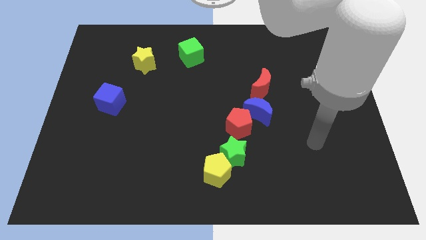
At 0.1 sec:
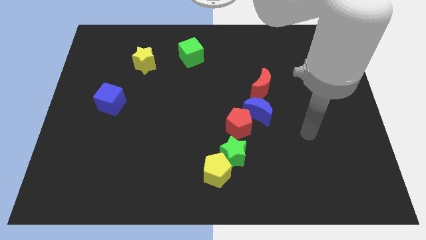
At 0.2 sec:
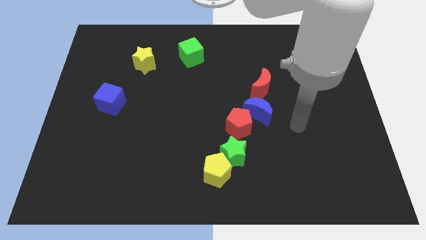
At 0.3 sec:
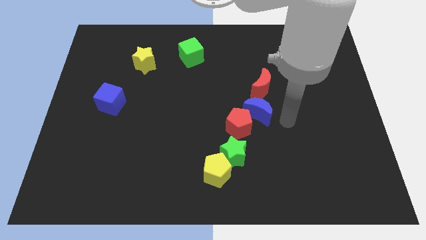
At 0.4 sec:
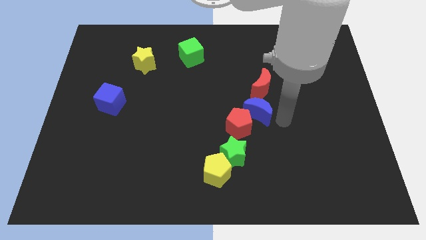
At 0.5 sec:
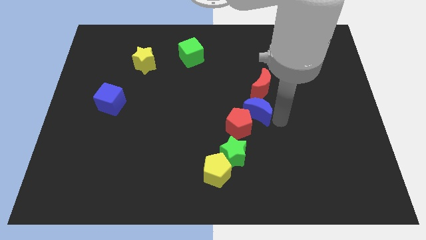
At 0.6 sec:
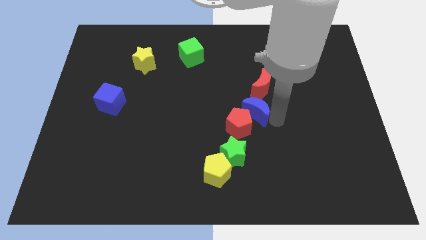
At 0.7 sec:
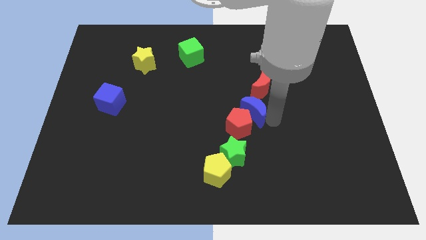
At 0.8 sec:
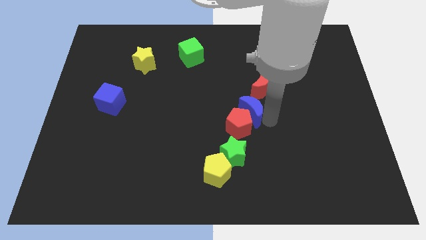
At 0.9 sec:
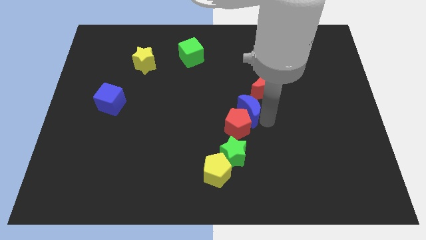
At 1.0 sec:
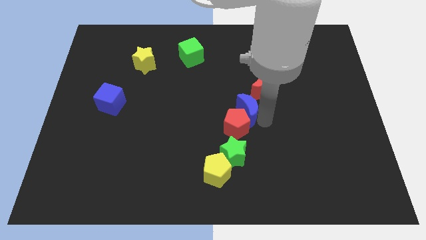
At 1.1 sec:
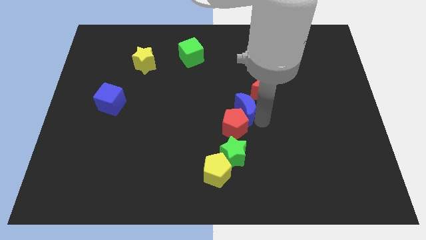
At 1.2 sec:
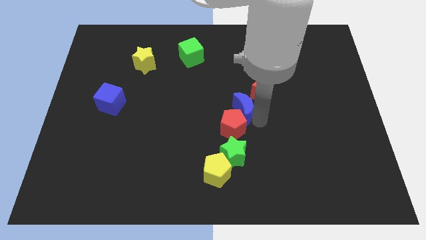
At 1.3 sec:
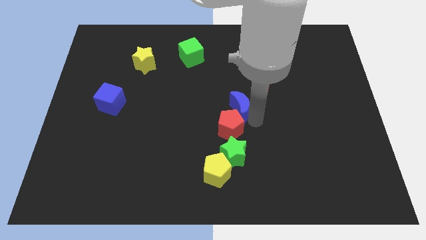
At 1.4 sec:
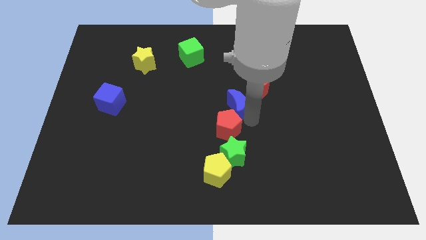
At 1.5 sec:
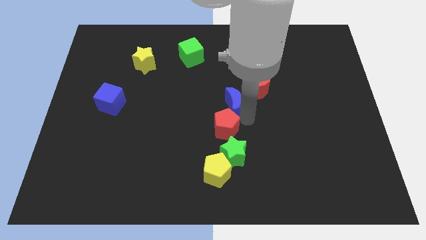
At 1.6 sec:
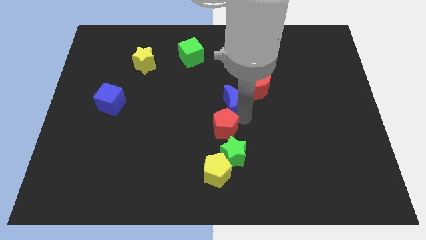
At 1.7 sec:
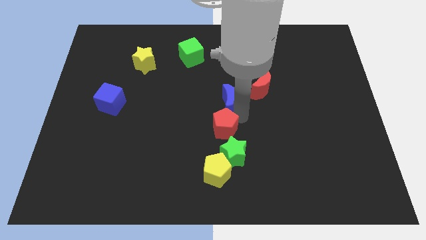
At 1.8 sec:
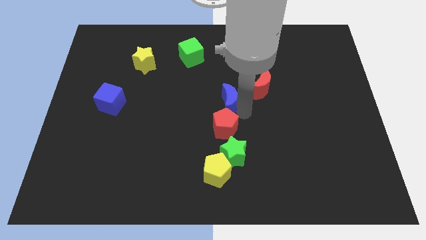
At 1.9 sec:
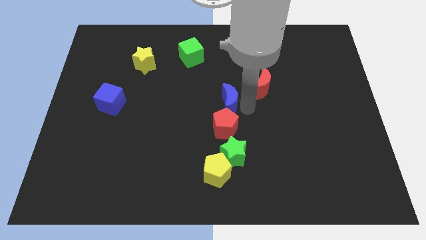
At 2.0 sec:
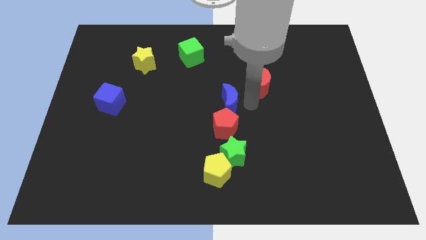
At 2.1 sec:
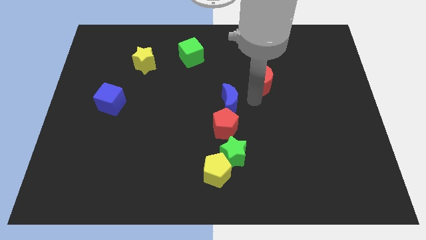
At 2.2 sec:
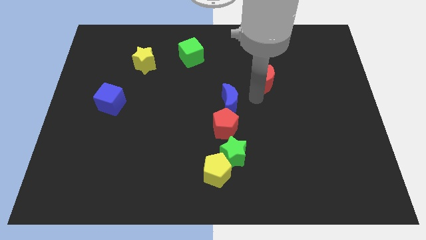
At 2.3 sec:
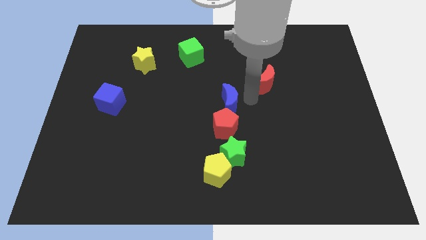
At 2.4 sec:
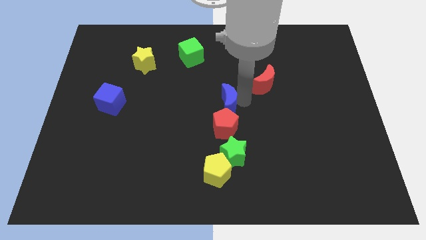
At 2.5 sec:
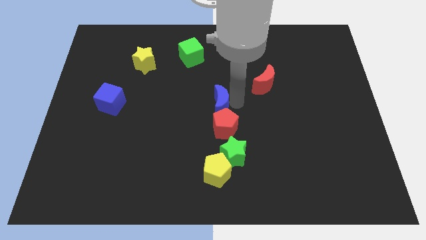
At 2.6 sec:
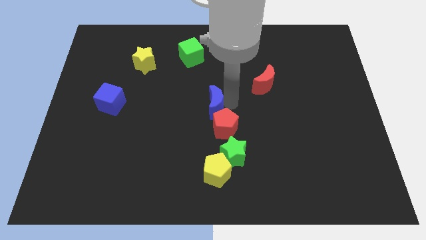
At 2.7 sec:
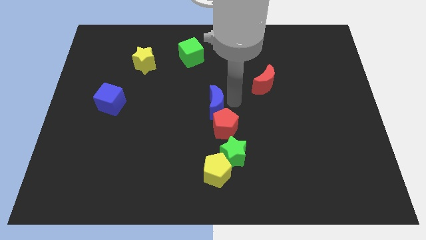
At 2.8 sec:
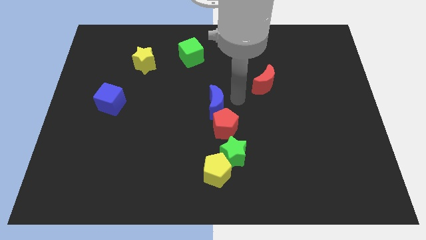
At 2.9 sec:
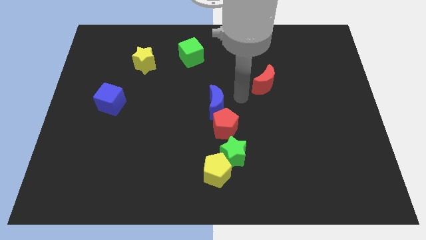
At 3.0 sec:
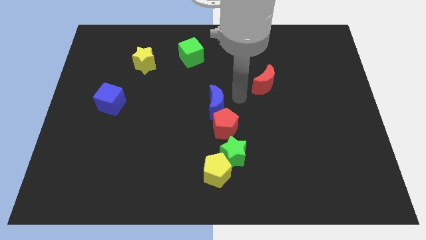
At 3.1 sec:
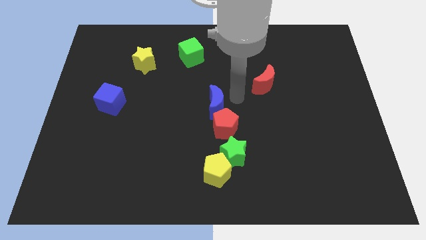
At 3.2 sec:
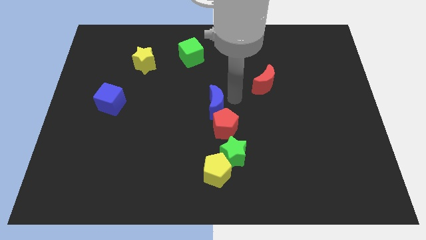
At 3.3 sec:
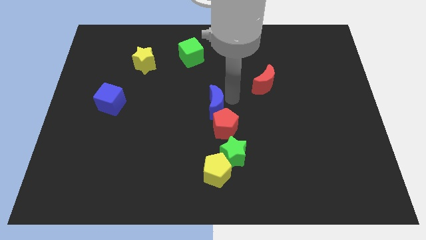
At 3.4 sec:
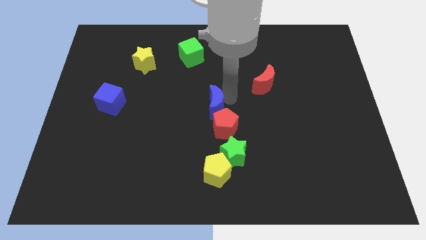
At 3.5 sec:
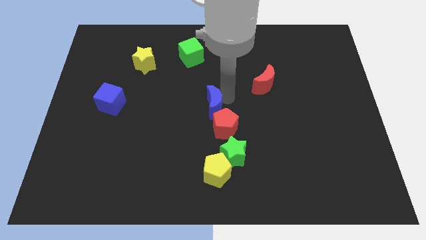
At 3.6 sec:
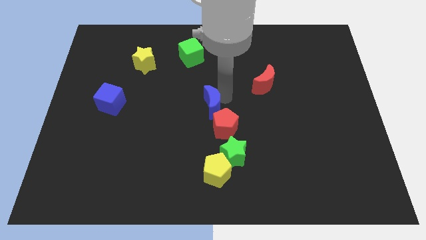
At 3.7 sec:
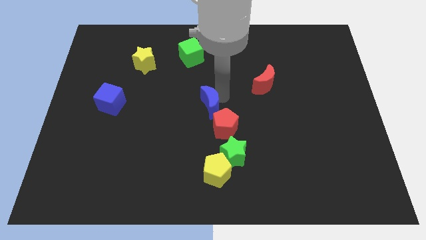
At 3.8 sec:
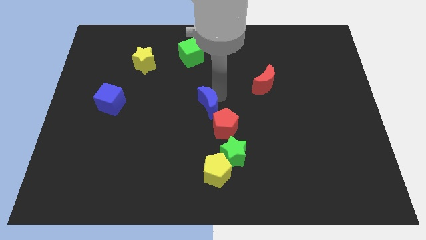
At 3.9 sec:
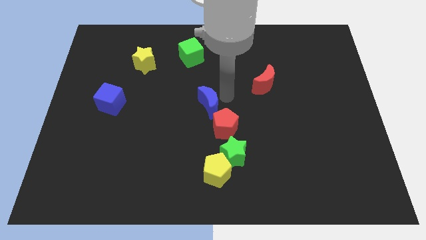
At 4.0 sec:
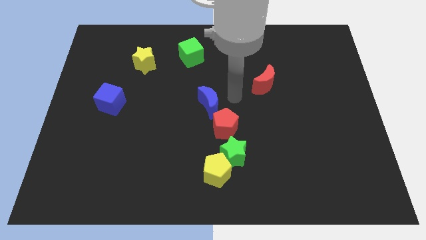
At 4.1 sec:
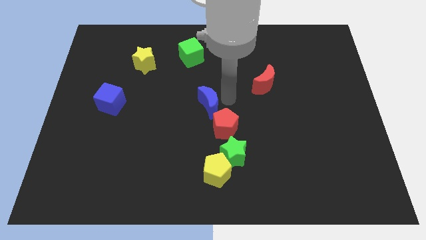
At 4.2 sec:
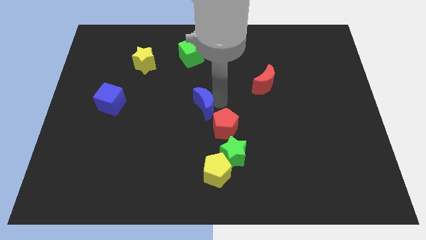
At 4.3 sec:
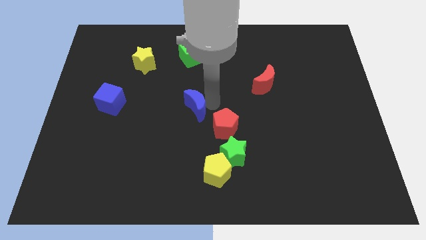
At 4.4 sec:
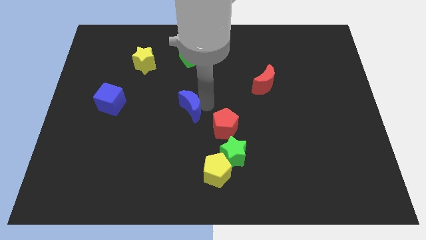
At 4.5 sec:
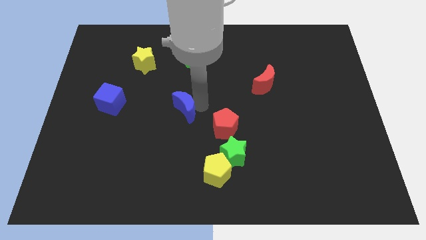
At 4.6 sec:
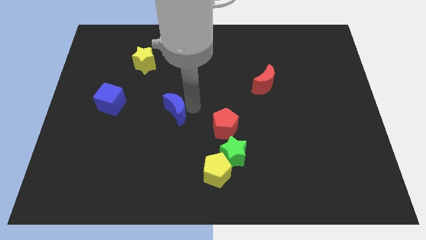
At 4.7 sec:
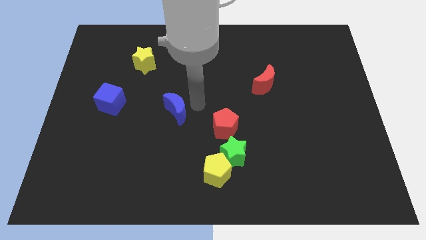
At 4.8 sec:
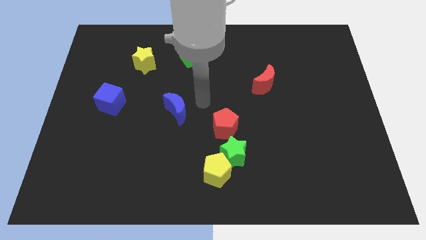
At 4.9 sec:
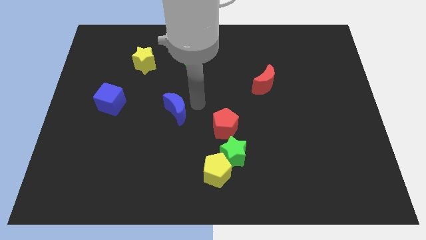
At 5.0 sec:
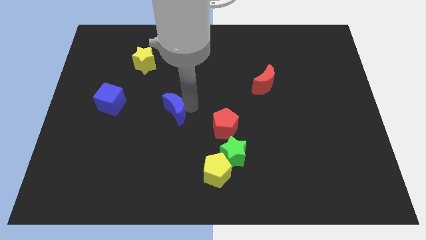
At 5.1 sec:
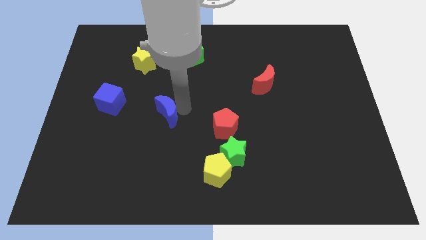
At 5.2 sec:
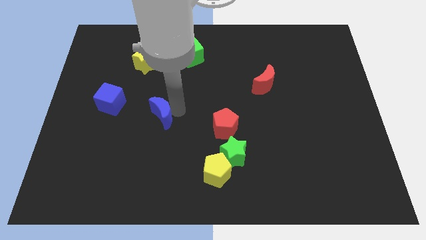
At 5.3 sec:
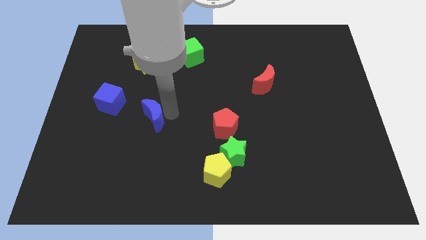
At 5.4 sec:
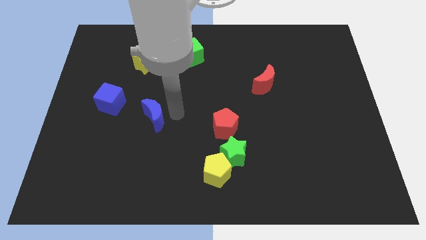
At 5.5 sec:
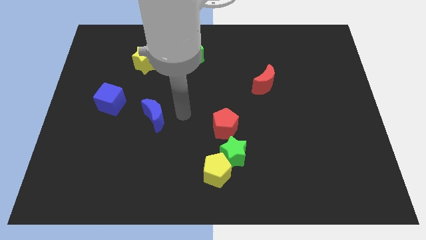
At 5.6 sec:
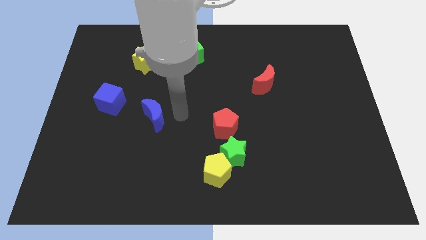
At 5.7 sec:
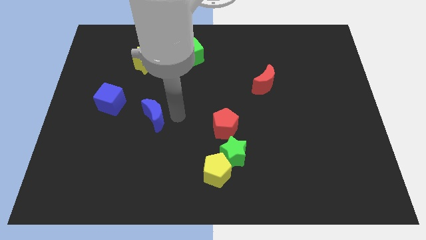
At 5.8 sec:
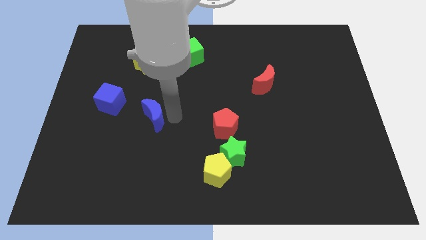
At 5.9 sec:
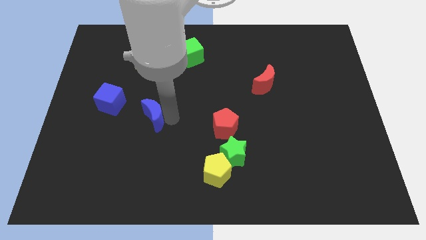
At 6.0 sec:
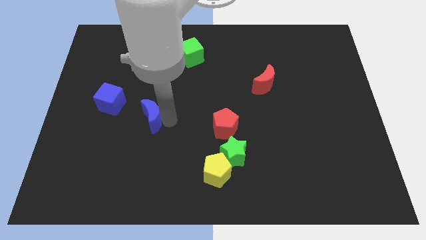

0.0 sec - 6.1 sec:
slide the blue moon to the bottom right side of the blue cube

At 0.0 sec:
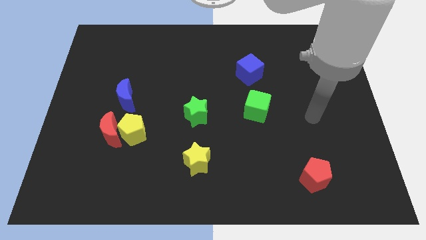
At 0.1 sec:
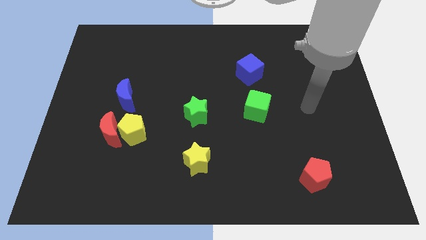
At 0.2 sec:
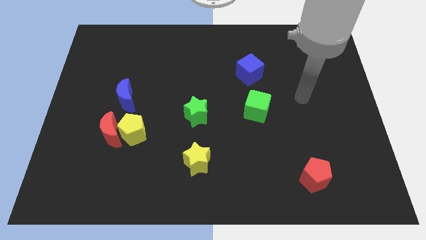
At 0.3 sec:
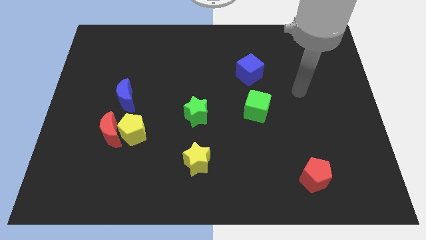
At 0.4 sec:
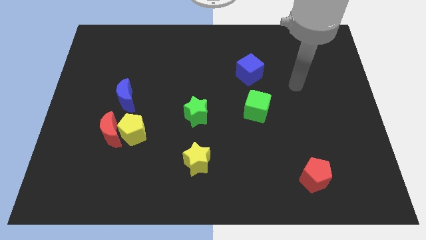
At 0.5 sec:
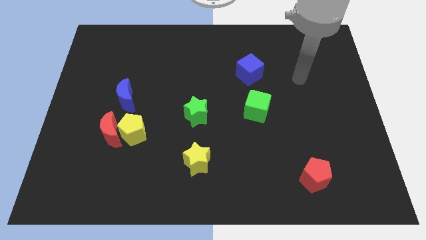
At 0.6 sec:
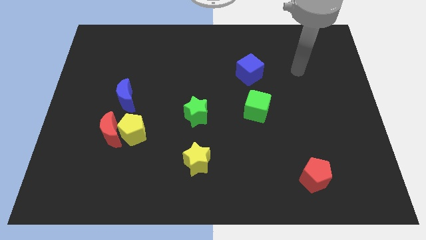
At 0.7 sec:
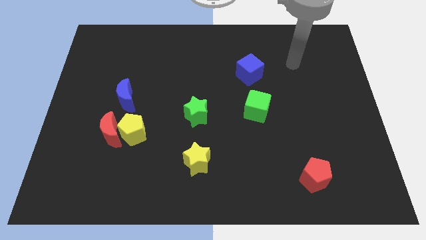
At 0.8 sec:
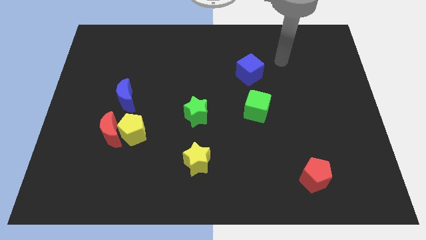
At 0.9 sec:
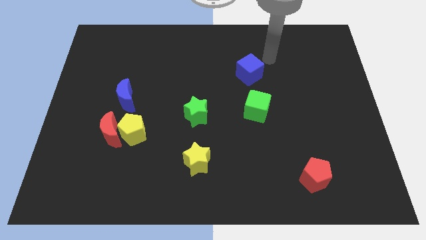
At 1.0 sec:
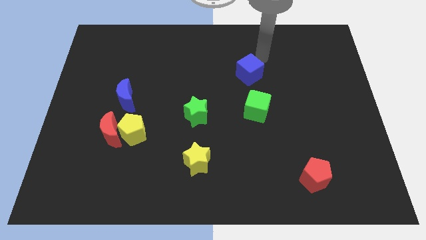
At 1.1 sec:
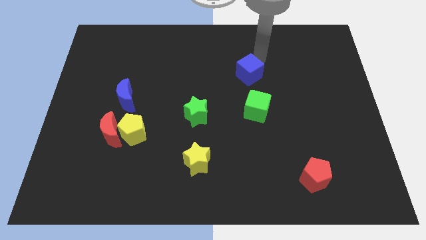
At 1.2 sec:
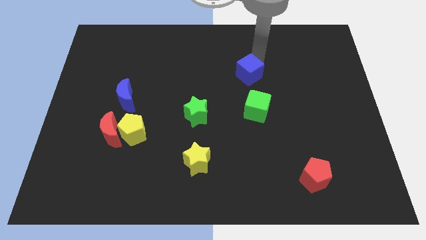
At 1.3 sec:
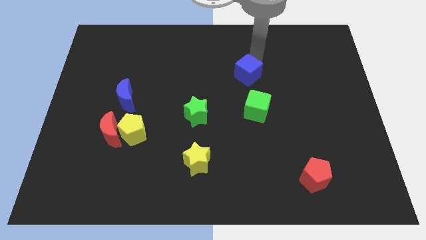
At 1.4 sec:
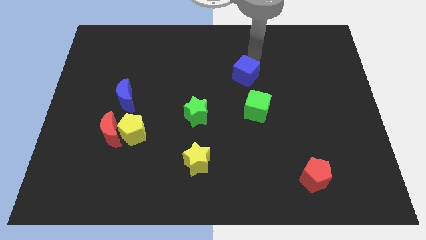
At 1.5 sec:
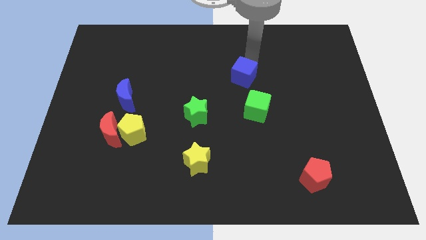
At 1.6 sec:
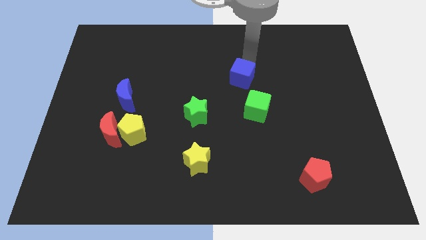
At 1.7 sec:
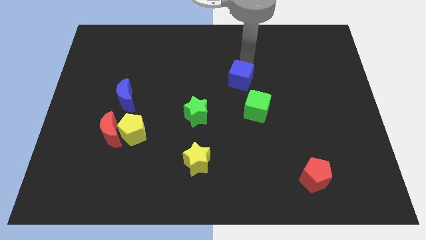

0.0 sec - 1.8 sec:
move the blue cube to the top left of the green cube
